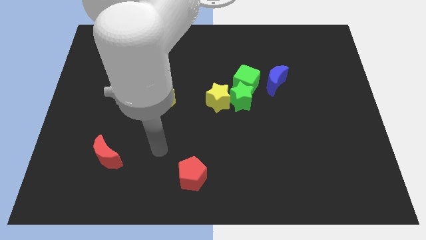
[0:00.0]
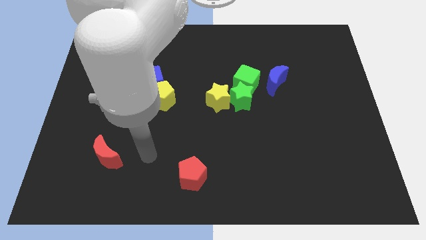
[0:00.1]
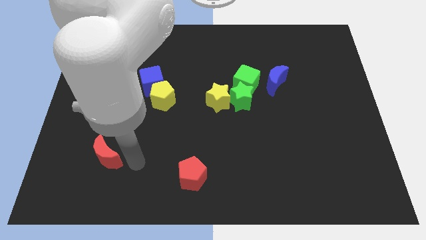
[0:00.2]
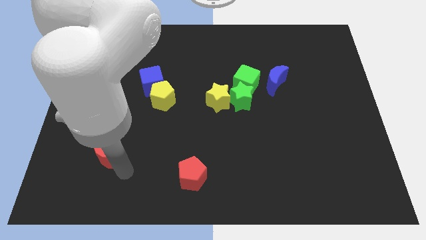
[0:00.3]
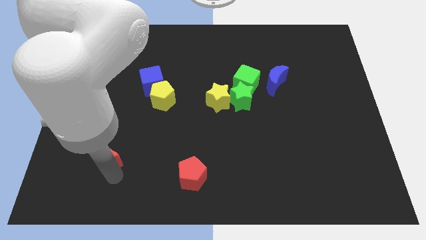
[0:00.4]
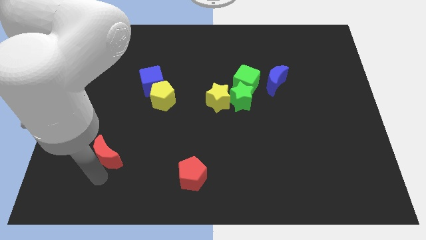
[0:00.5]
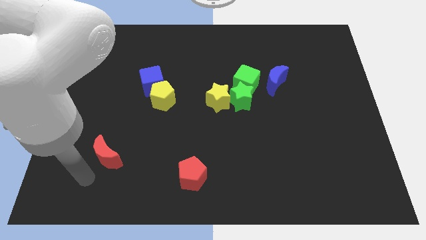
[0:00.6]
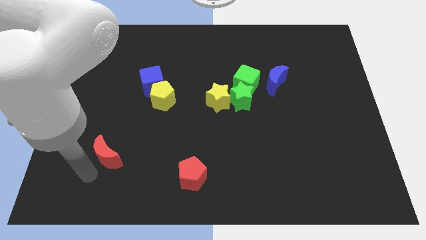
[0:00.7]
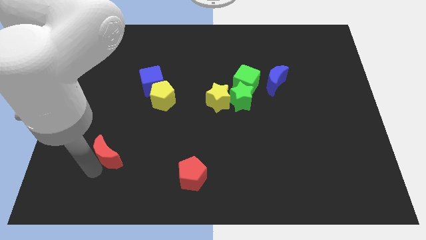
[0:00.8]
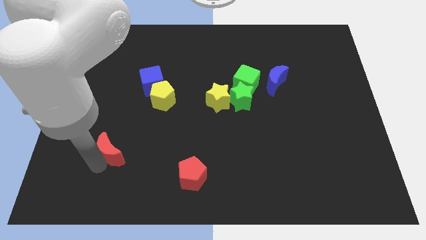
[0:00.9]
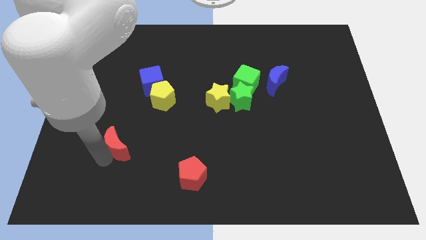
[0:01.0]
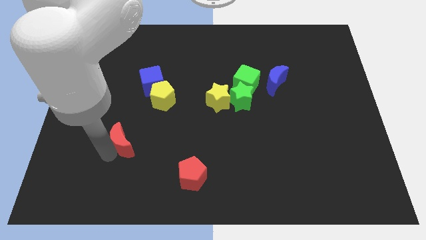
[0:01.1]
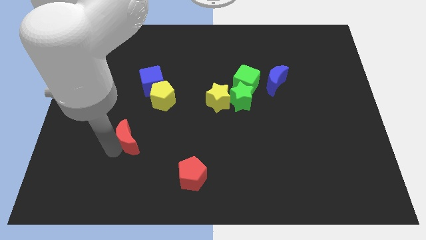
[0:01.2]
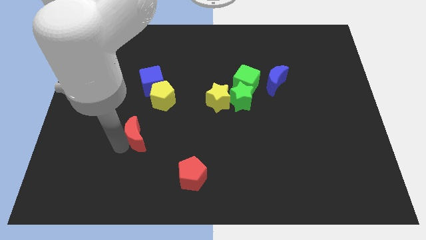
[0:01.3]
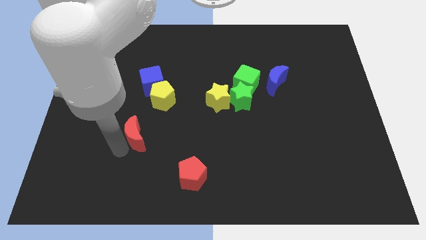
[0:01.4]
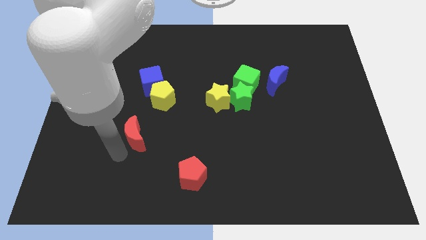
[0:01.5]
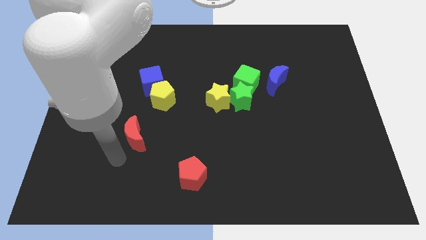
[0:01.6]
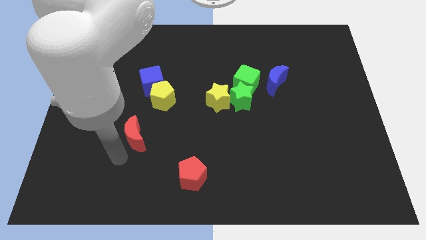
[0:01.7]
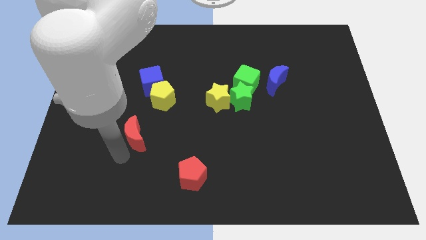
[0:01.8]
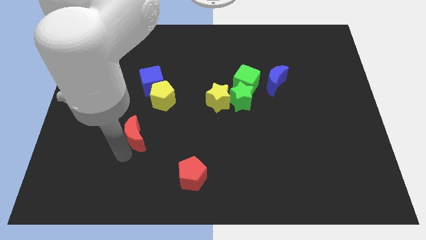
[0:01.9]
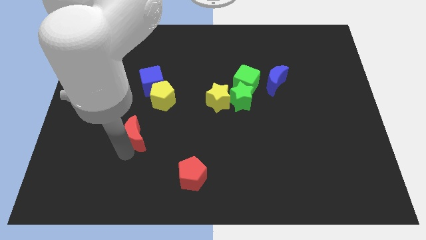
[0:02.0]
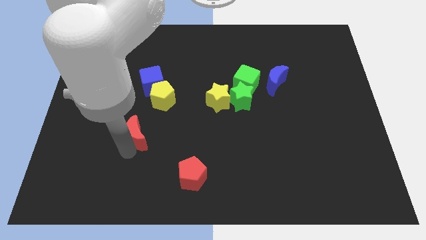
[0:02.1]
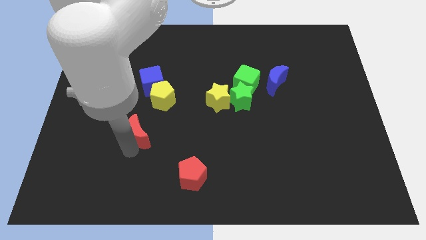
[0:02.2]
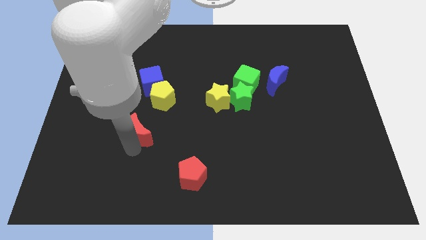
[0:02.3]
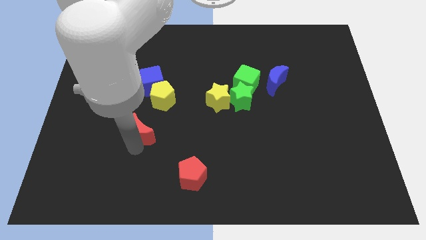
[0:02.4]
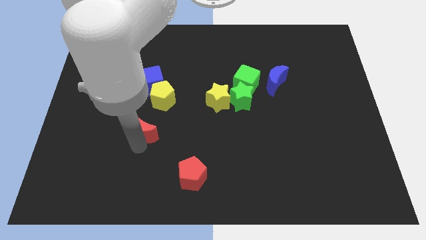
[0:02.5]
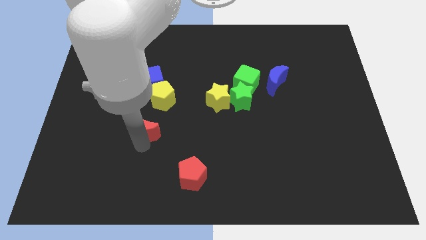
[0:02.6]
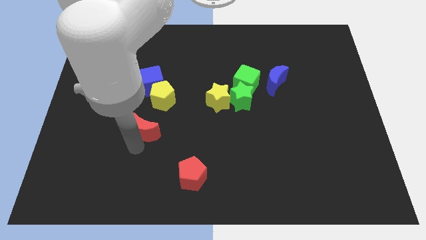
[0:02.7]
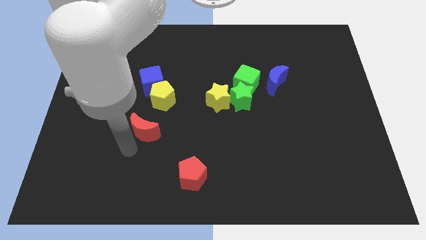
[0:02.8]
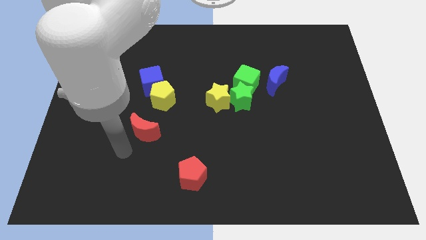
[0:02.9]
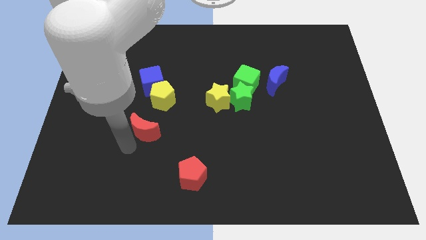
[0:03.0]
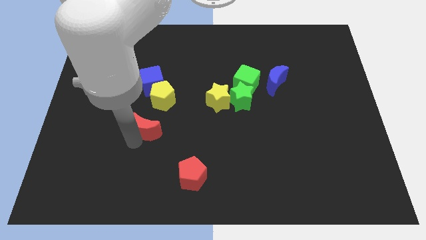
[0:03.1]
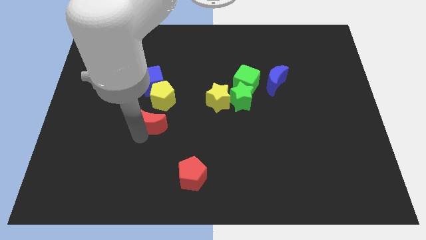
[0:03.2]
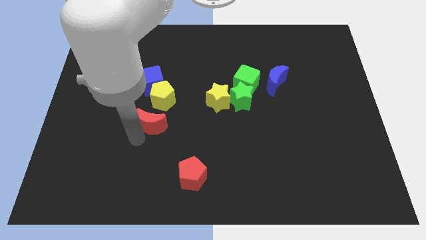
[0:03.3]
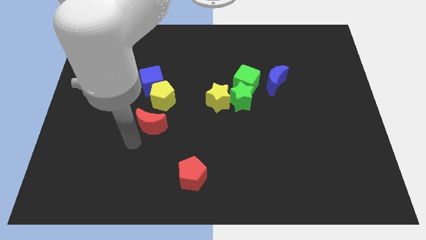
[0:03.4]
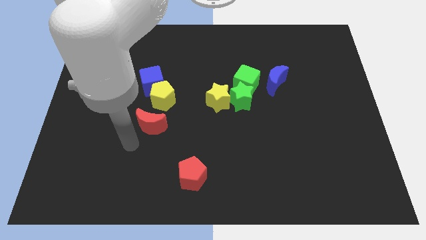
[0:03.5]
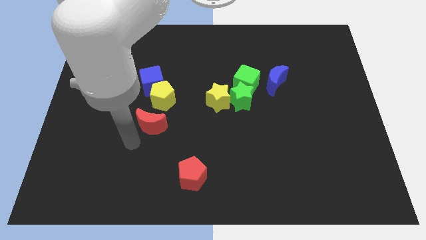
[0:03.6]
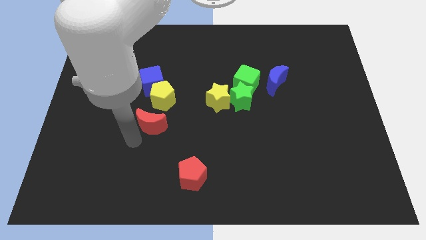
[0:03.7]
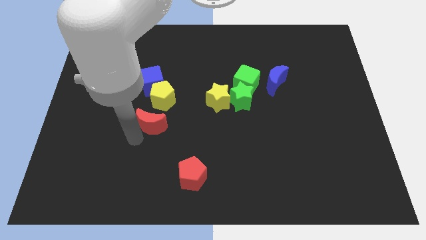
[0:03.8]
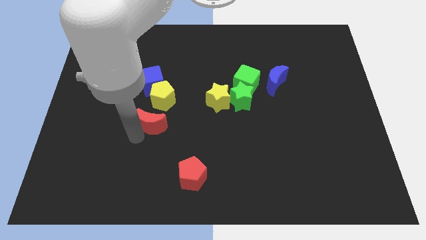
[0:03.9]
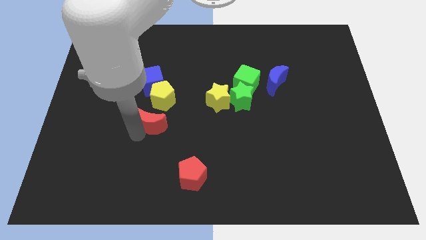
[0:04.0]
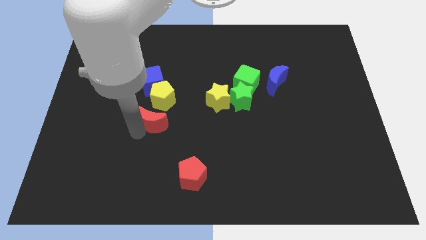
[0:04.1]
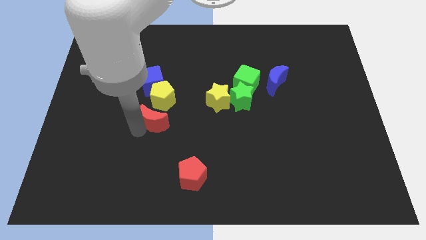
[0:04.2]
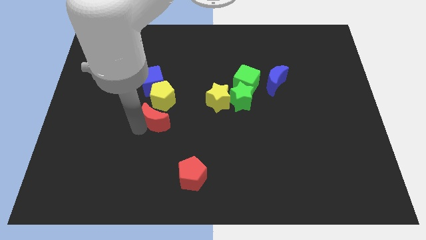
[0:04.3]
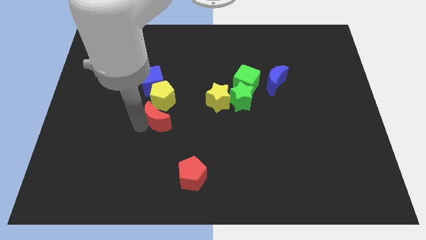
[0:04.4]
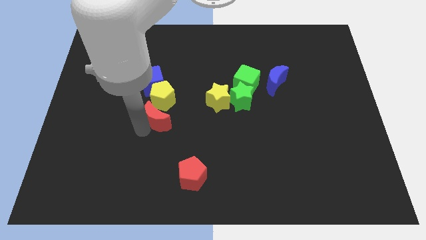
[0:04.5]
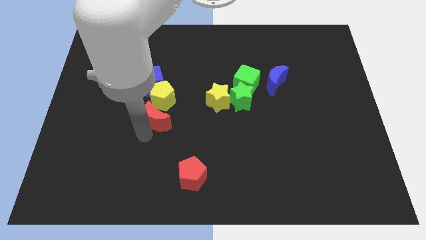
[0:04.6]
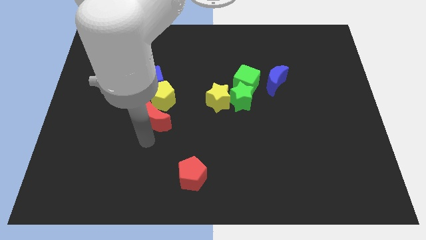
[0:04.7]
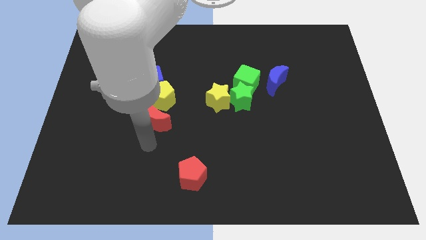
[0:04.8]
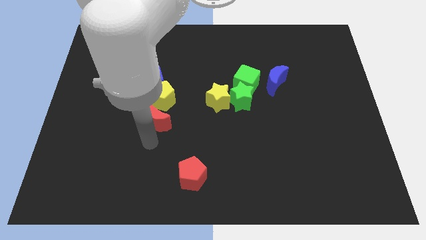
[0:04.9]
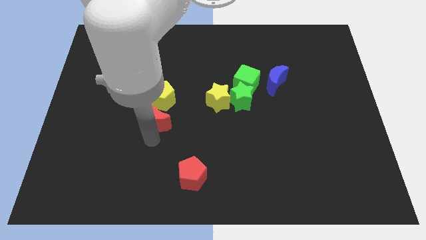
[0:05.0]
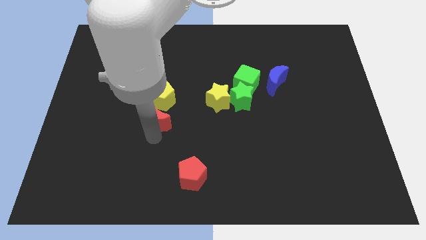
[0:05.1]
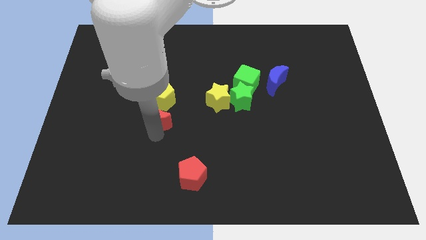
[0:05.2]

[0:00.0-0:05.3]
put the red moon towards the yellow pentagon

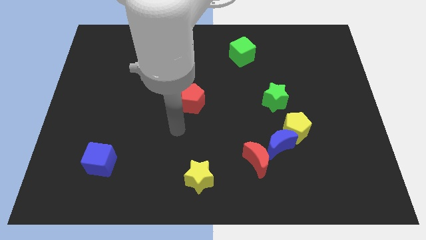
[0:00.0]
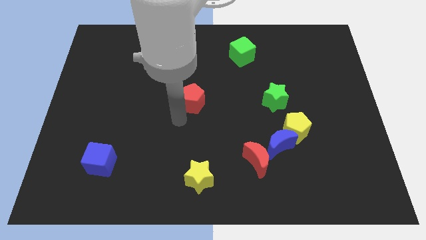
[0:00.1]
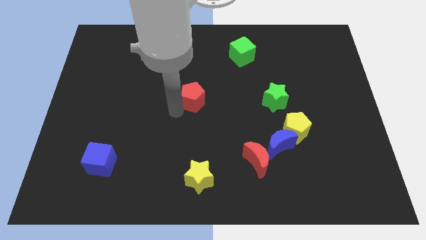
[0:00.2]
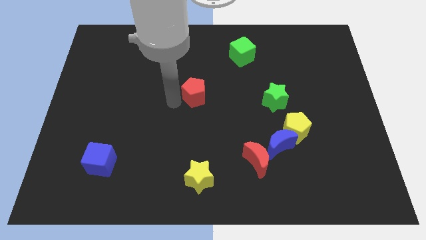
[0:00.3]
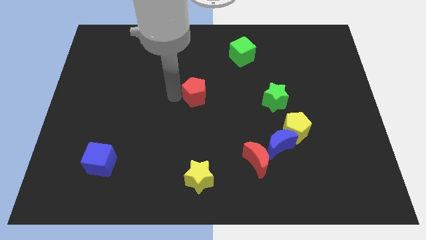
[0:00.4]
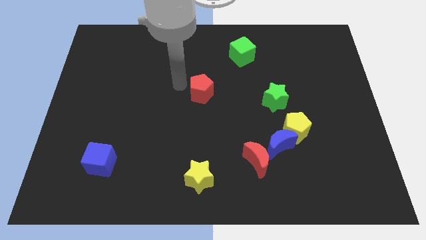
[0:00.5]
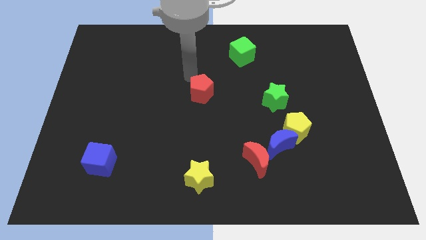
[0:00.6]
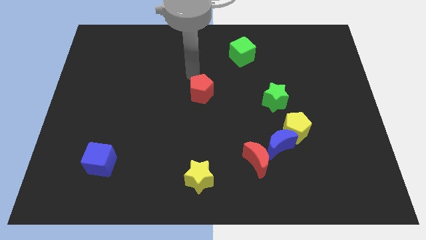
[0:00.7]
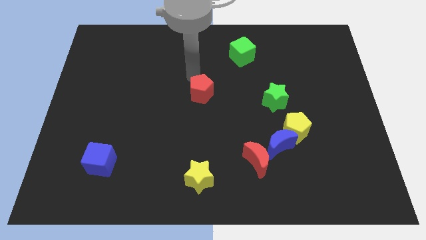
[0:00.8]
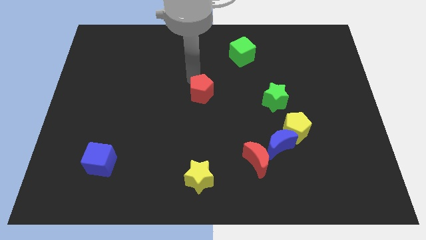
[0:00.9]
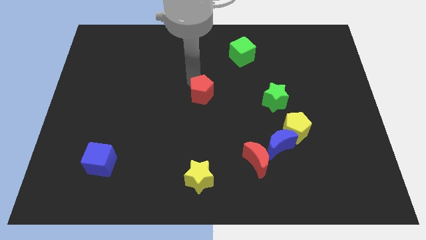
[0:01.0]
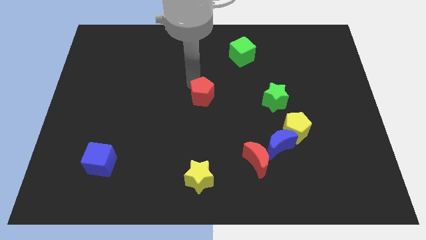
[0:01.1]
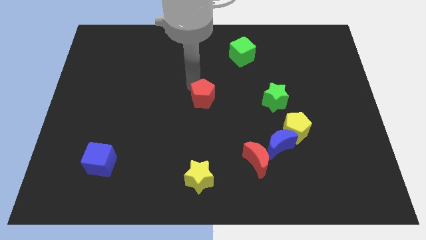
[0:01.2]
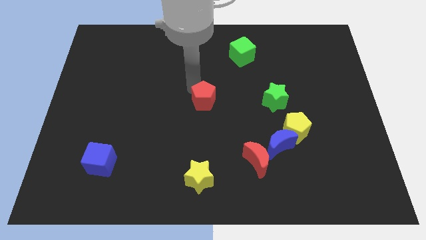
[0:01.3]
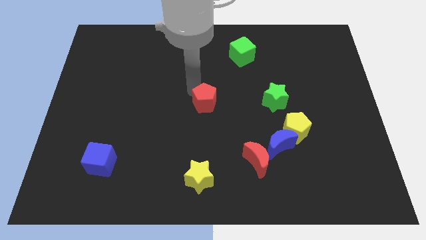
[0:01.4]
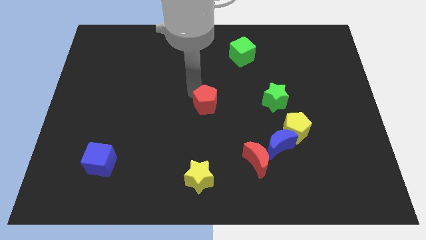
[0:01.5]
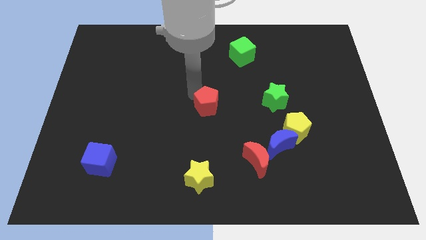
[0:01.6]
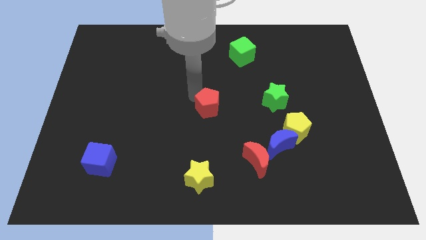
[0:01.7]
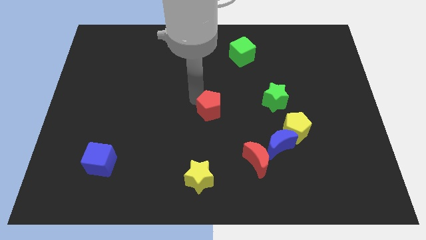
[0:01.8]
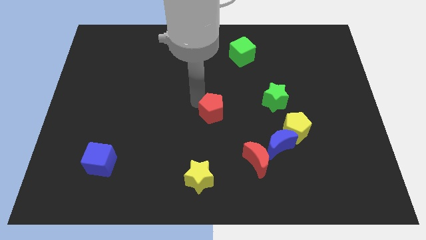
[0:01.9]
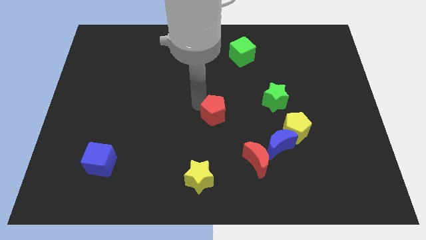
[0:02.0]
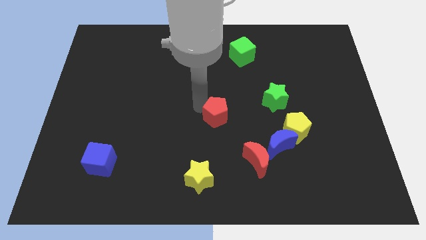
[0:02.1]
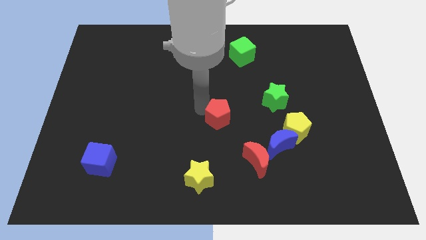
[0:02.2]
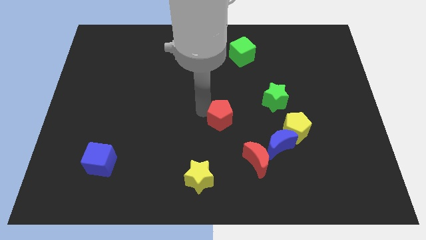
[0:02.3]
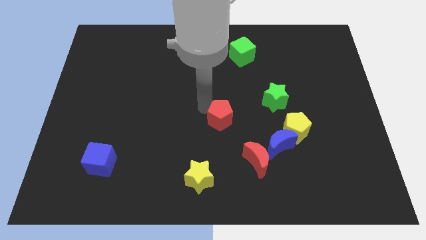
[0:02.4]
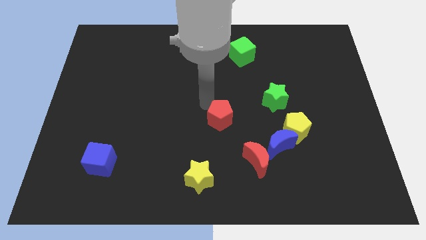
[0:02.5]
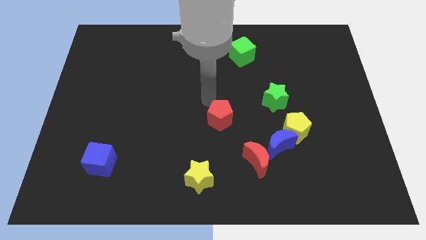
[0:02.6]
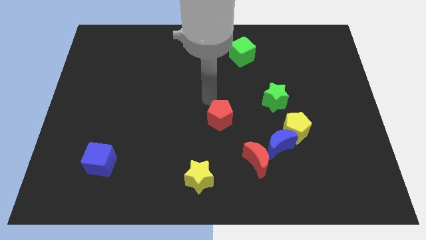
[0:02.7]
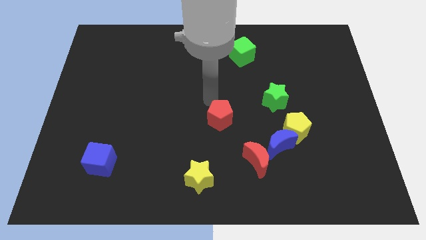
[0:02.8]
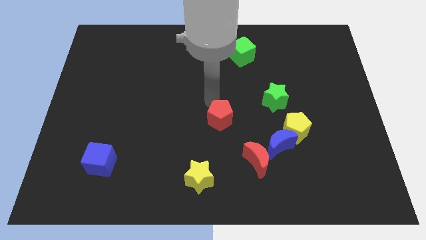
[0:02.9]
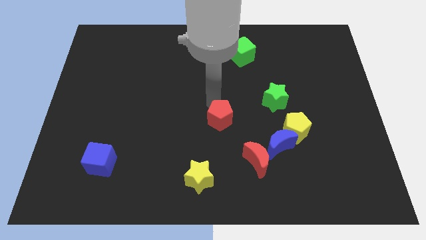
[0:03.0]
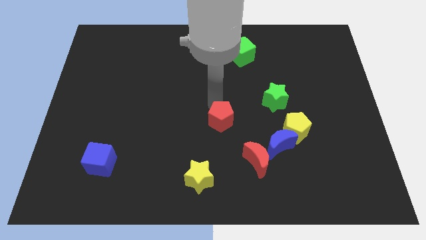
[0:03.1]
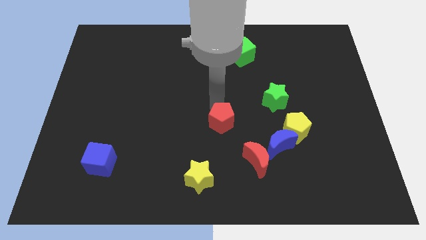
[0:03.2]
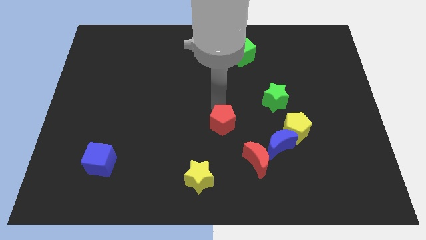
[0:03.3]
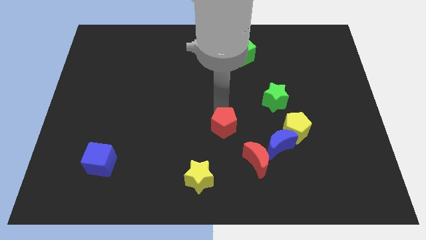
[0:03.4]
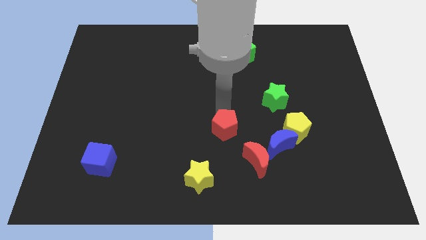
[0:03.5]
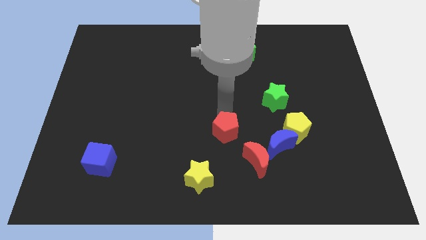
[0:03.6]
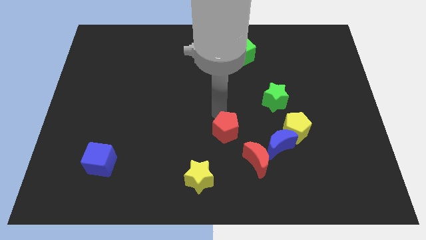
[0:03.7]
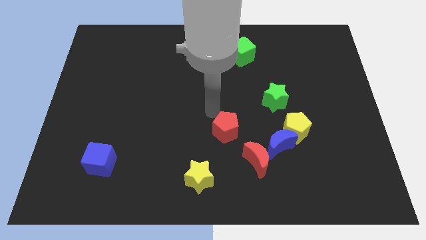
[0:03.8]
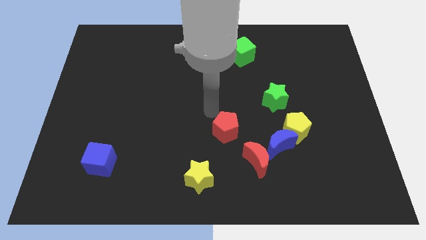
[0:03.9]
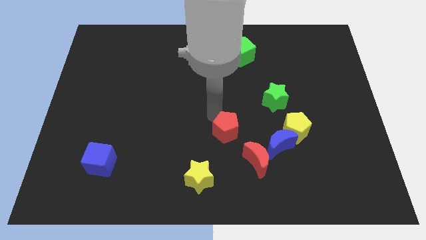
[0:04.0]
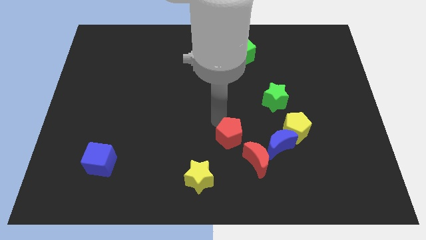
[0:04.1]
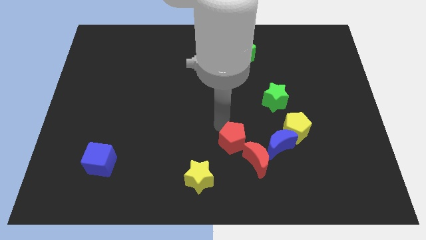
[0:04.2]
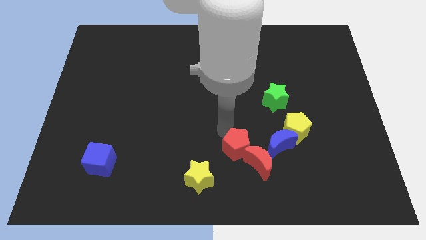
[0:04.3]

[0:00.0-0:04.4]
move the red pentagon next to the red moon
